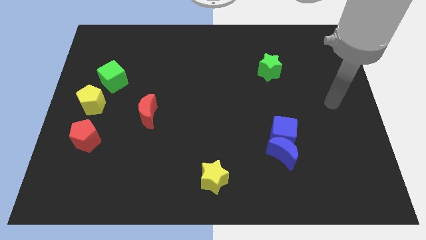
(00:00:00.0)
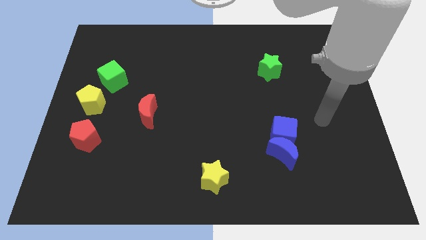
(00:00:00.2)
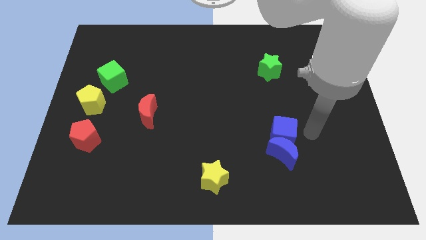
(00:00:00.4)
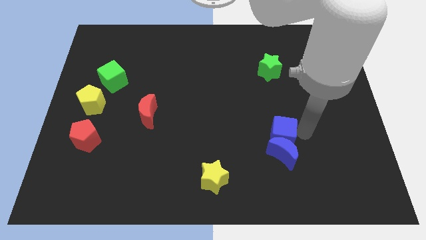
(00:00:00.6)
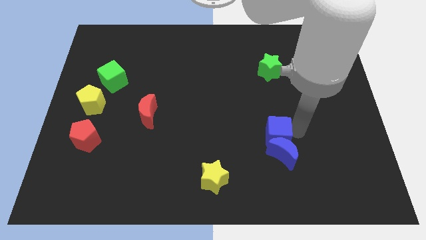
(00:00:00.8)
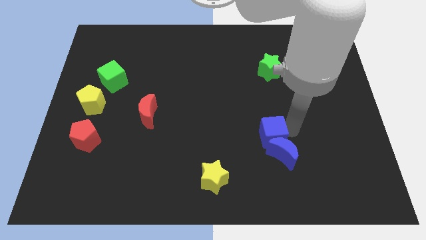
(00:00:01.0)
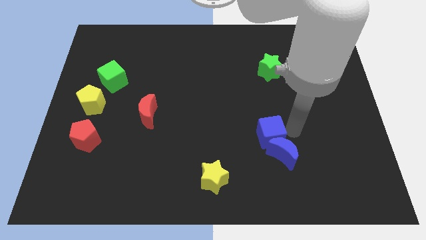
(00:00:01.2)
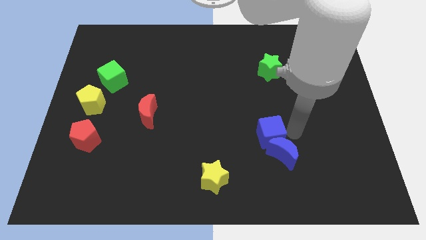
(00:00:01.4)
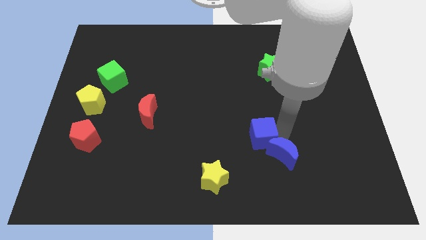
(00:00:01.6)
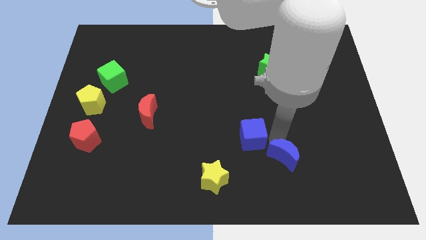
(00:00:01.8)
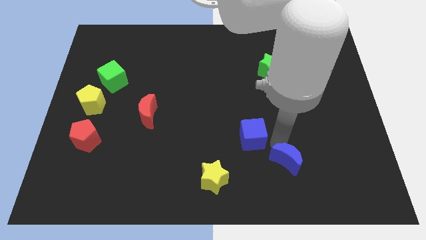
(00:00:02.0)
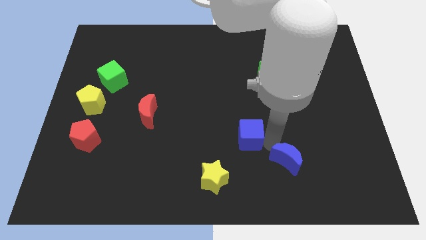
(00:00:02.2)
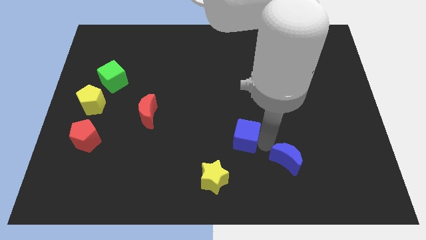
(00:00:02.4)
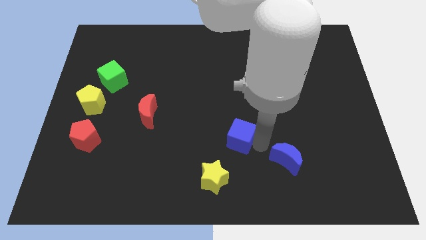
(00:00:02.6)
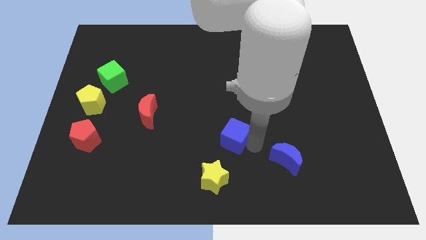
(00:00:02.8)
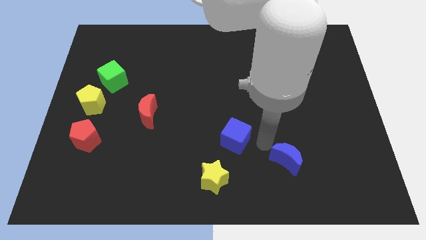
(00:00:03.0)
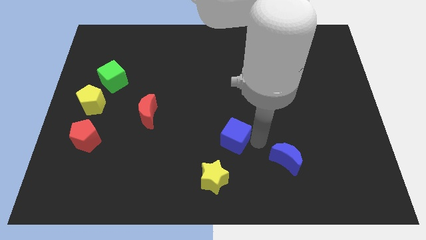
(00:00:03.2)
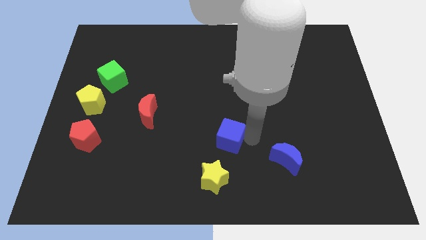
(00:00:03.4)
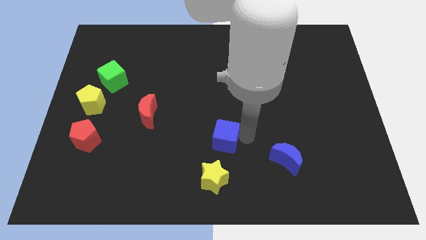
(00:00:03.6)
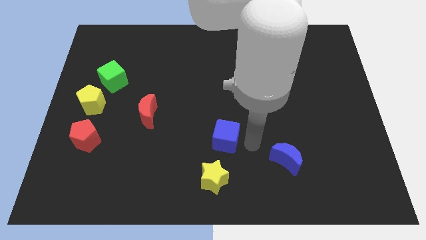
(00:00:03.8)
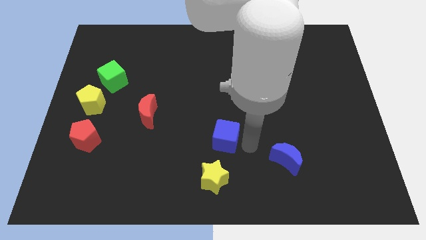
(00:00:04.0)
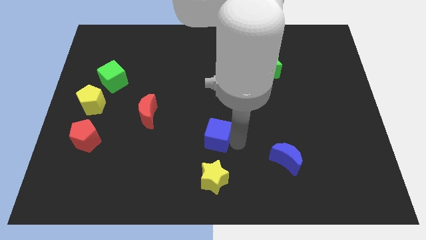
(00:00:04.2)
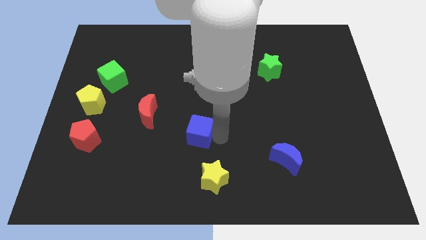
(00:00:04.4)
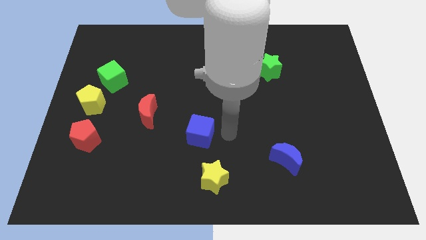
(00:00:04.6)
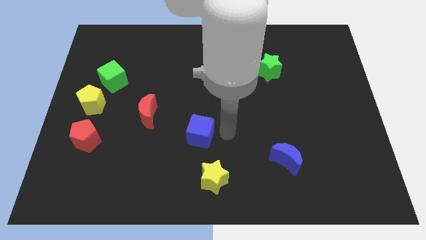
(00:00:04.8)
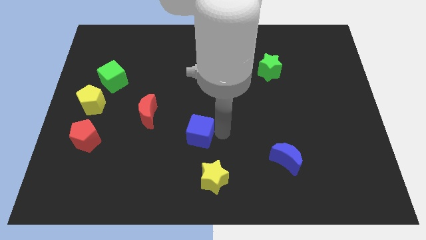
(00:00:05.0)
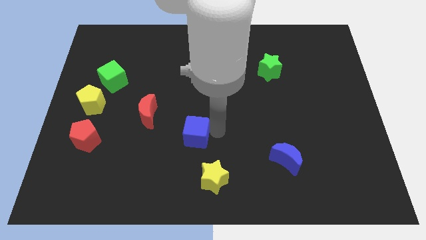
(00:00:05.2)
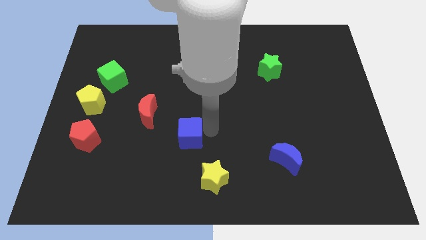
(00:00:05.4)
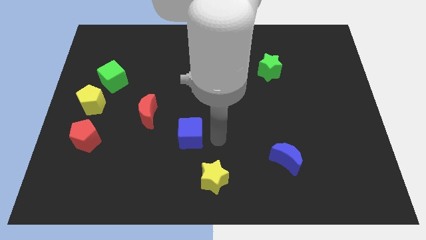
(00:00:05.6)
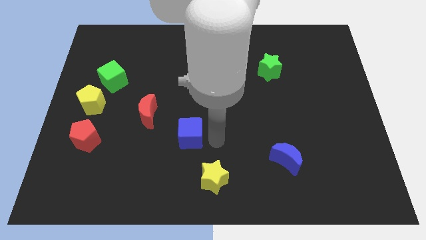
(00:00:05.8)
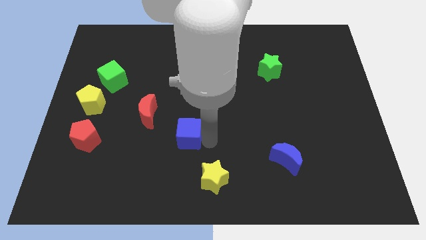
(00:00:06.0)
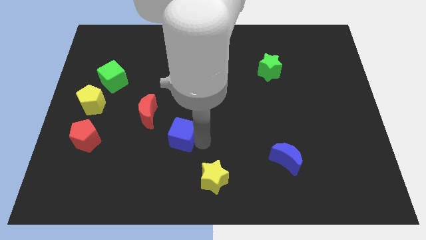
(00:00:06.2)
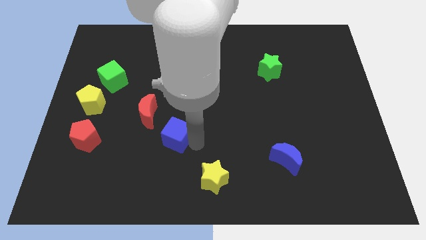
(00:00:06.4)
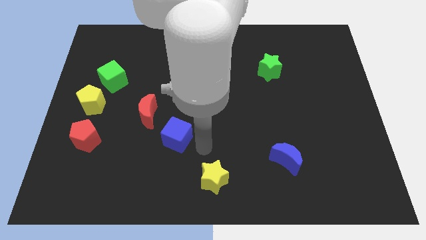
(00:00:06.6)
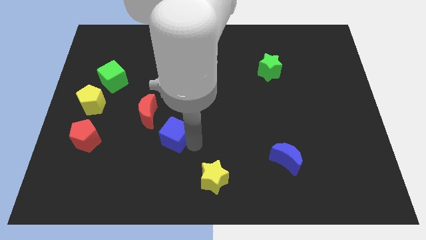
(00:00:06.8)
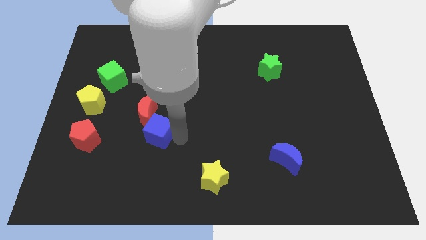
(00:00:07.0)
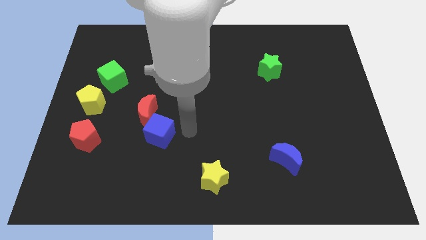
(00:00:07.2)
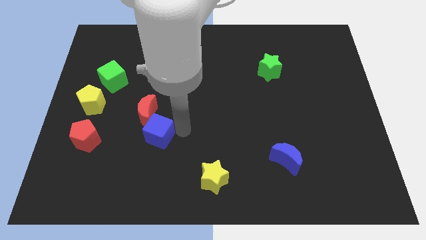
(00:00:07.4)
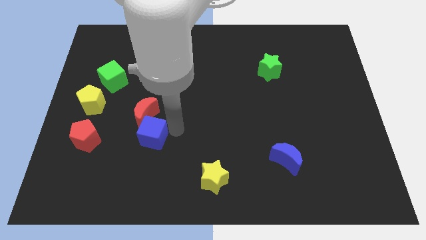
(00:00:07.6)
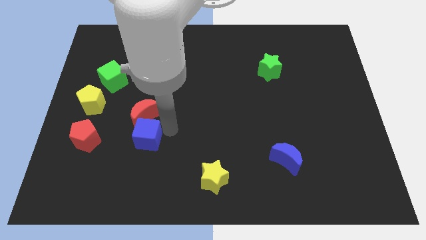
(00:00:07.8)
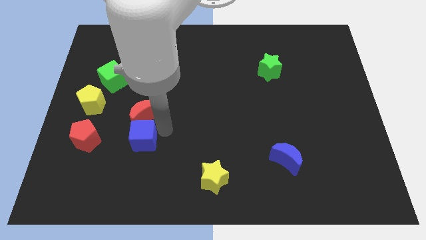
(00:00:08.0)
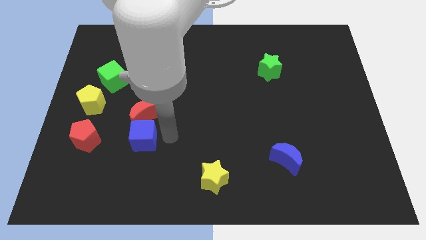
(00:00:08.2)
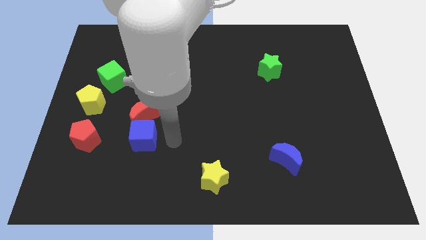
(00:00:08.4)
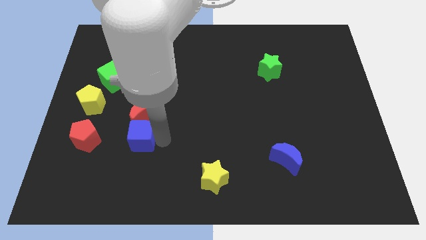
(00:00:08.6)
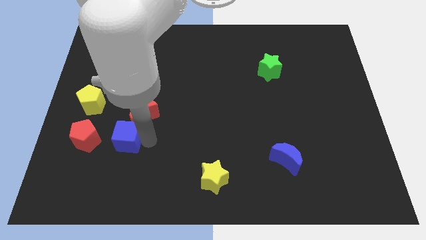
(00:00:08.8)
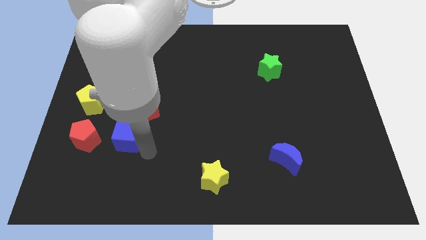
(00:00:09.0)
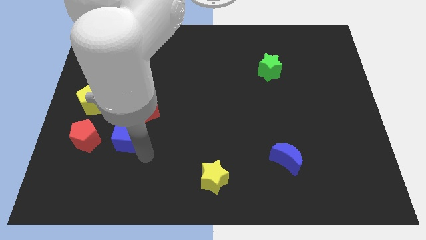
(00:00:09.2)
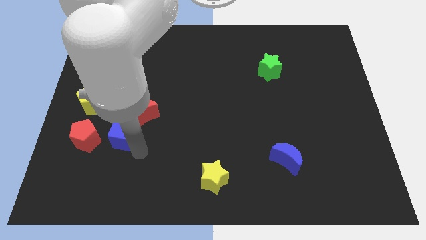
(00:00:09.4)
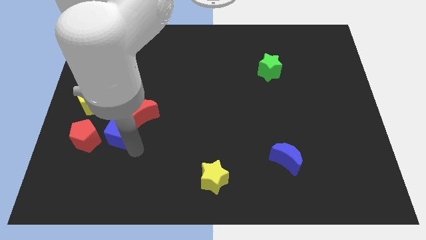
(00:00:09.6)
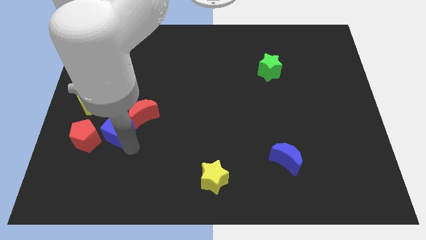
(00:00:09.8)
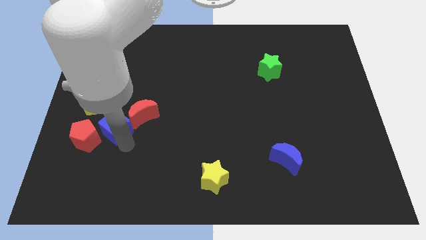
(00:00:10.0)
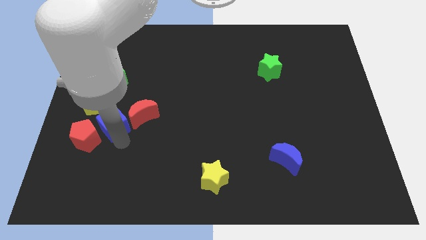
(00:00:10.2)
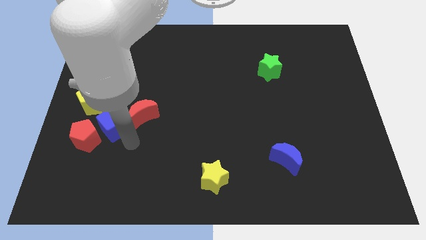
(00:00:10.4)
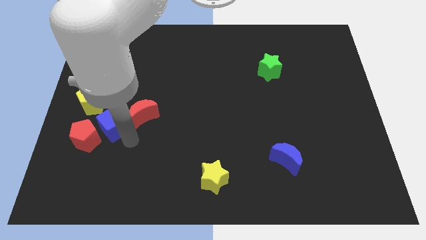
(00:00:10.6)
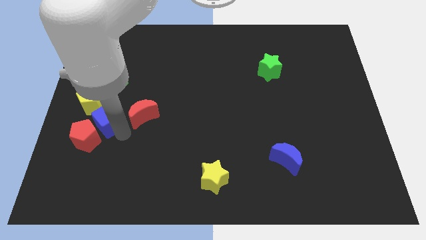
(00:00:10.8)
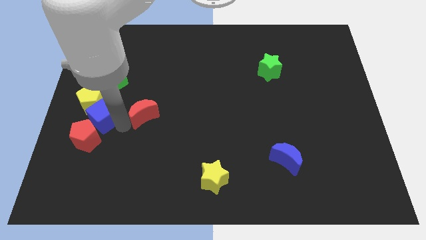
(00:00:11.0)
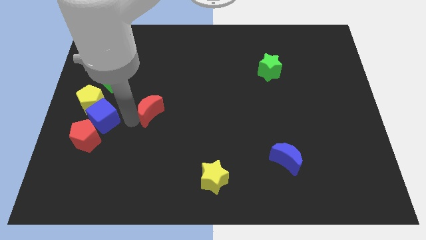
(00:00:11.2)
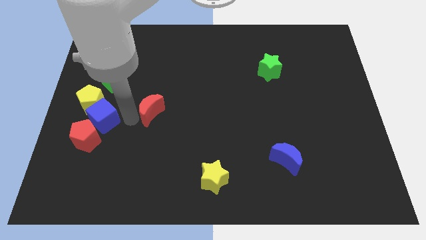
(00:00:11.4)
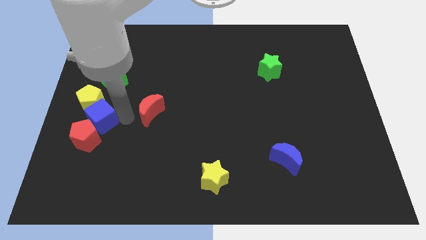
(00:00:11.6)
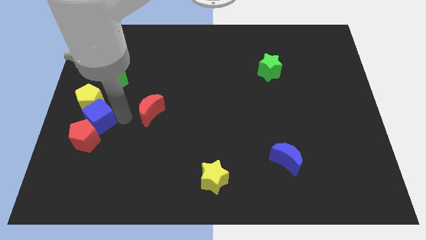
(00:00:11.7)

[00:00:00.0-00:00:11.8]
push the blue cube to the center left
